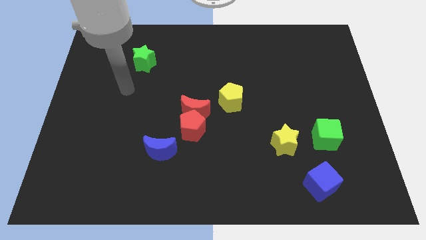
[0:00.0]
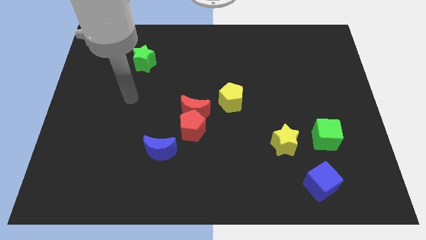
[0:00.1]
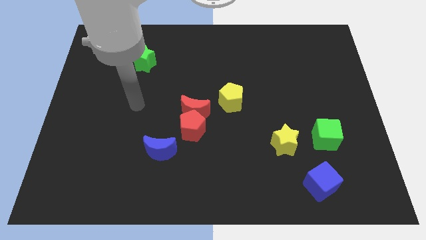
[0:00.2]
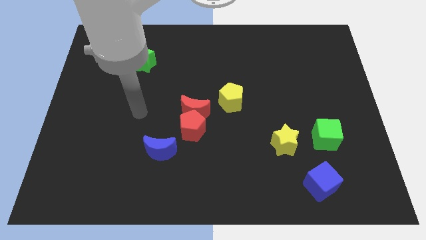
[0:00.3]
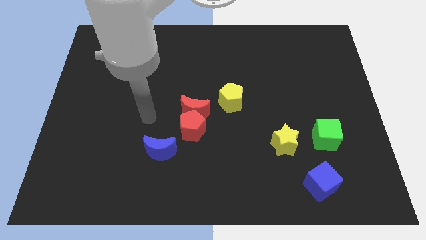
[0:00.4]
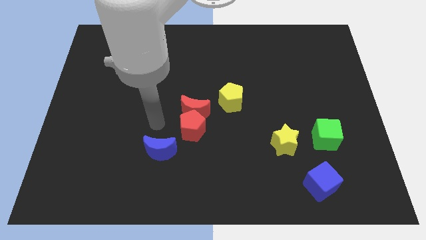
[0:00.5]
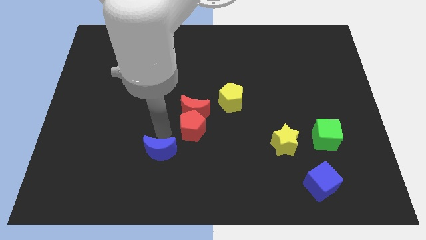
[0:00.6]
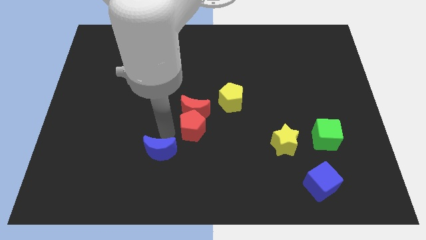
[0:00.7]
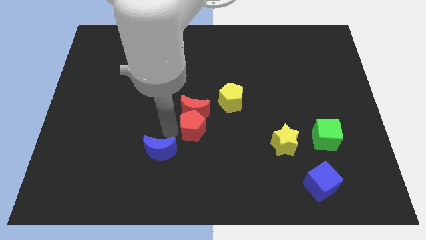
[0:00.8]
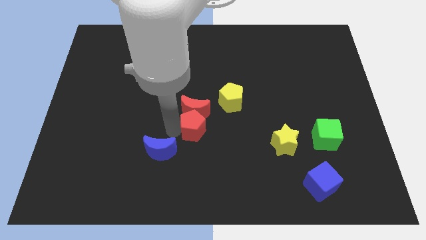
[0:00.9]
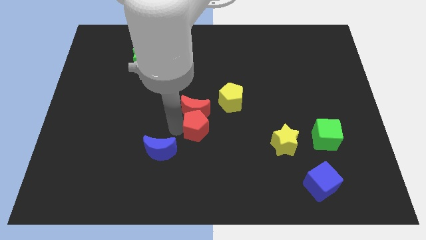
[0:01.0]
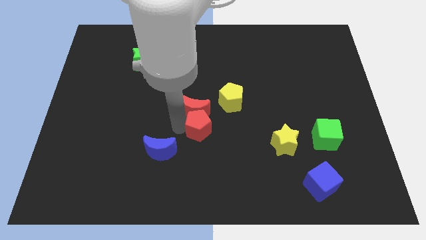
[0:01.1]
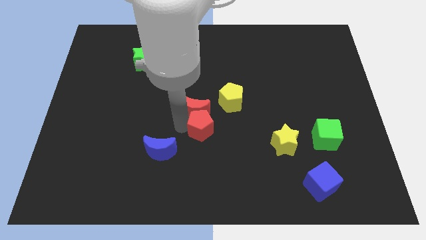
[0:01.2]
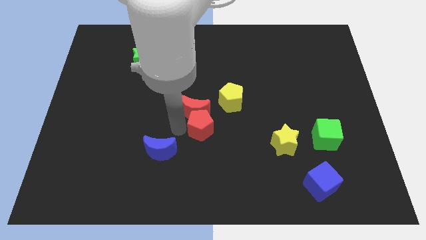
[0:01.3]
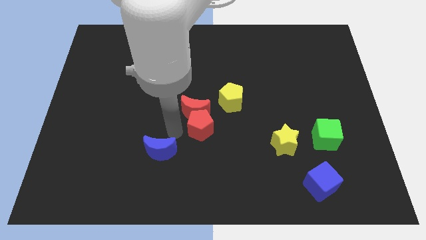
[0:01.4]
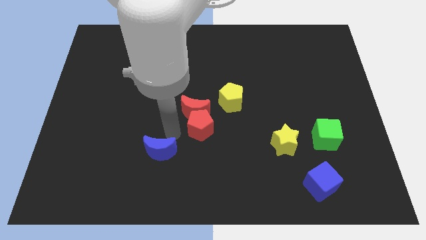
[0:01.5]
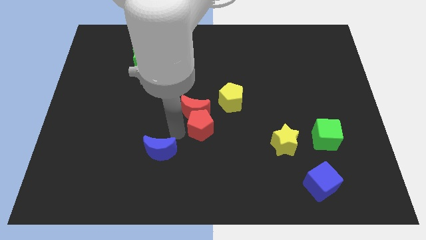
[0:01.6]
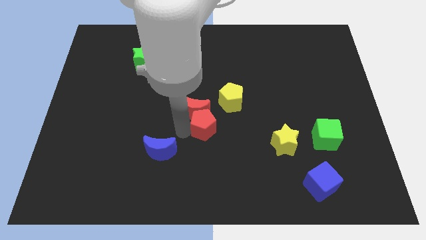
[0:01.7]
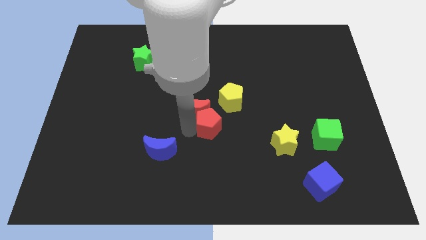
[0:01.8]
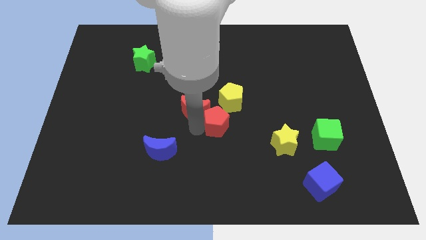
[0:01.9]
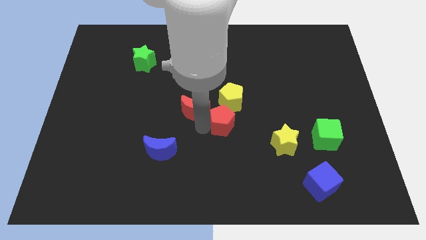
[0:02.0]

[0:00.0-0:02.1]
pull the red pentagon apart from the red moon and blue moon

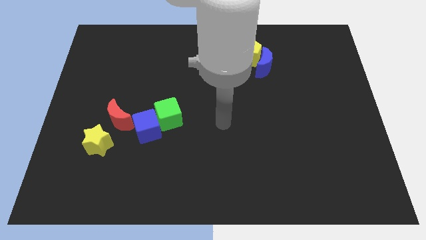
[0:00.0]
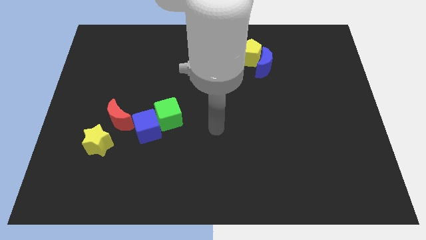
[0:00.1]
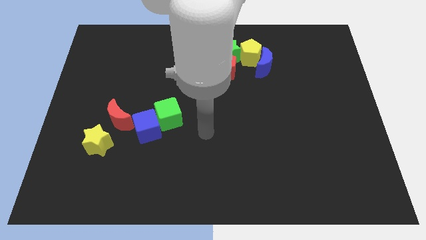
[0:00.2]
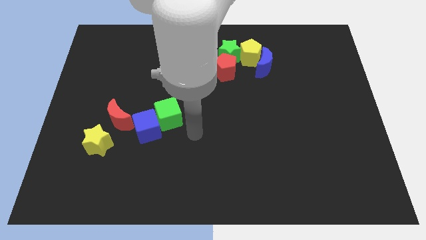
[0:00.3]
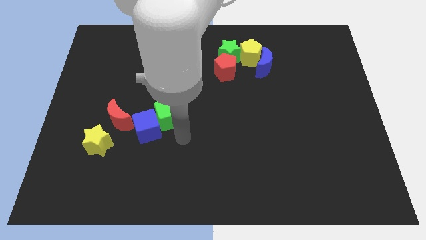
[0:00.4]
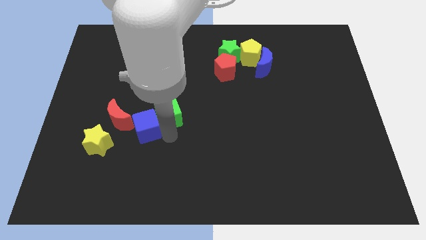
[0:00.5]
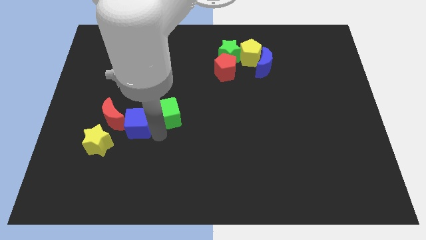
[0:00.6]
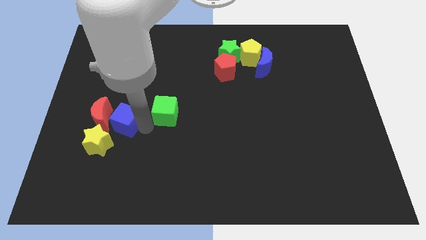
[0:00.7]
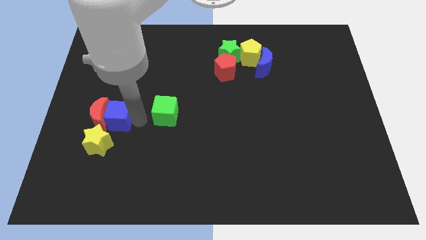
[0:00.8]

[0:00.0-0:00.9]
separate the green cube from the blue cube

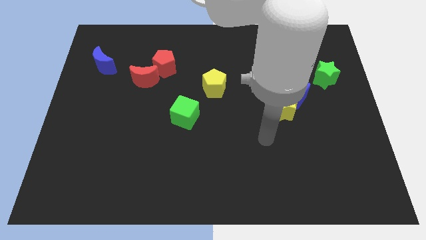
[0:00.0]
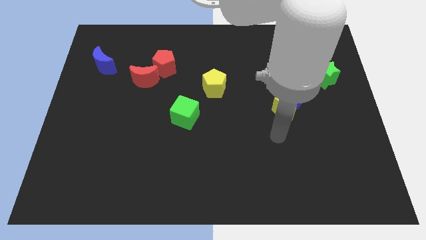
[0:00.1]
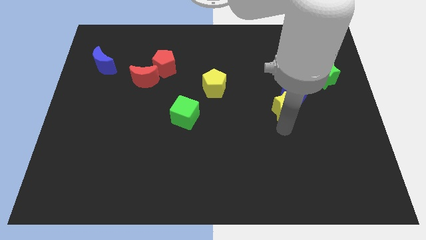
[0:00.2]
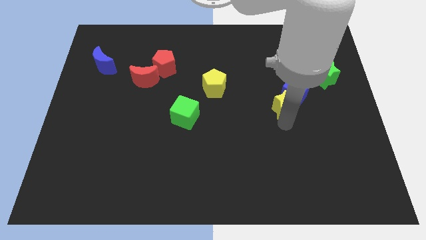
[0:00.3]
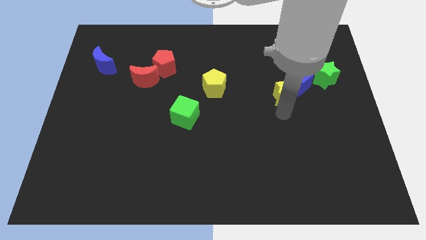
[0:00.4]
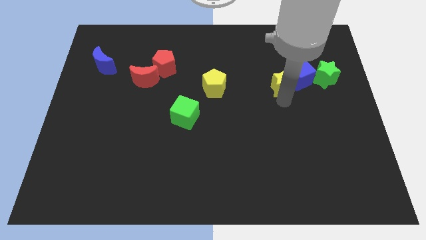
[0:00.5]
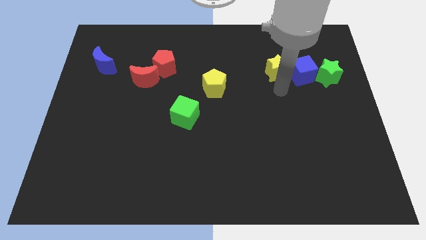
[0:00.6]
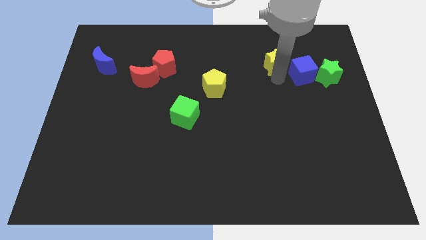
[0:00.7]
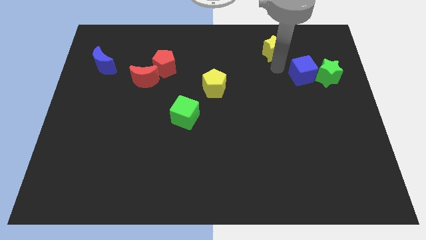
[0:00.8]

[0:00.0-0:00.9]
pull the blue cube apart from the yellow star

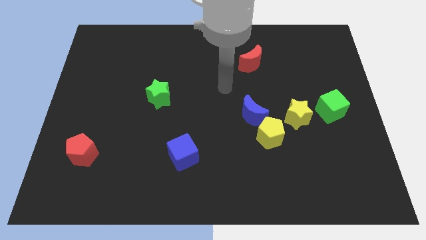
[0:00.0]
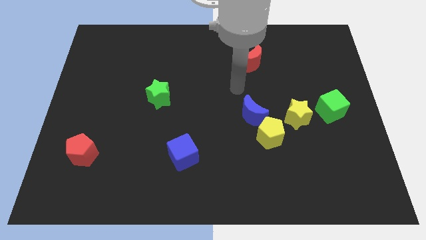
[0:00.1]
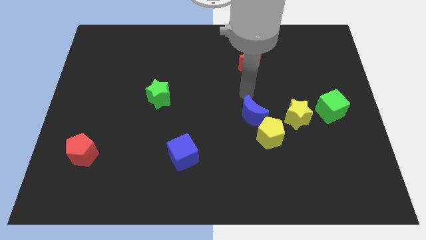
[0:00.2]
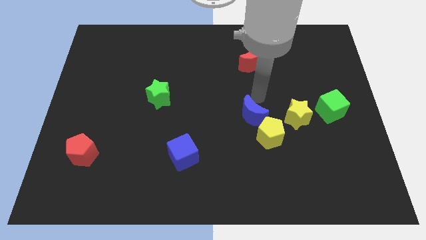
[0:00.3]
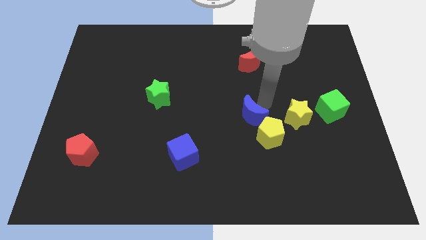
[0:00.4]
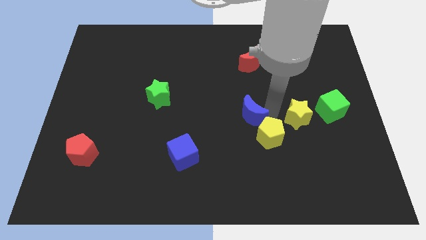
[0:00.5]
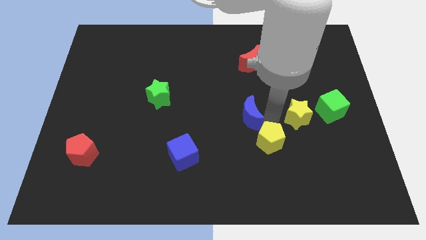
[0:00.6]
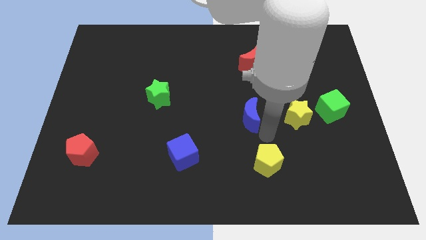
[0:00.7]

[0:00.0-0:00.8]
pull the blue moon apart from the yellow pentagon

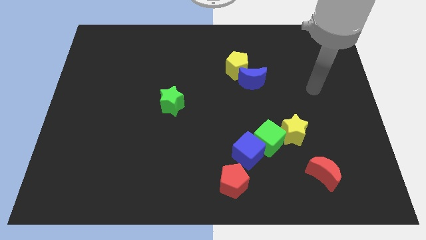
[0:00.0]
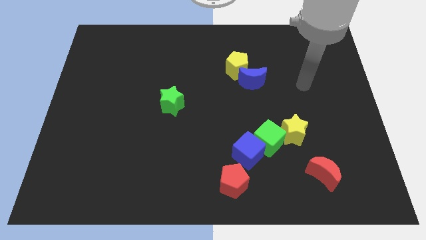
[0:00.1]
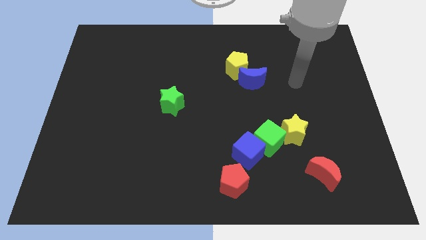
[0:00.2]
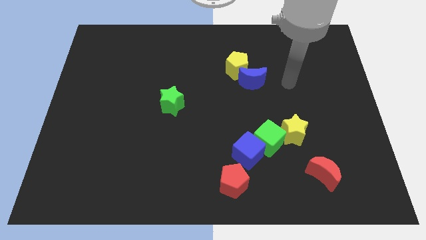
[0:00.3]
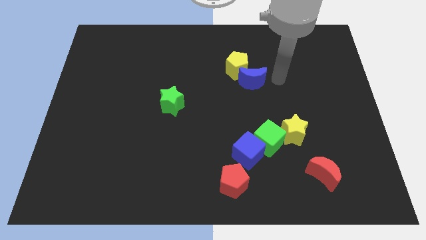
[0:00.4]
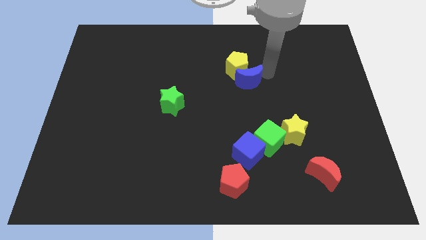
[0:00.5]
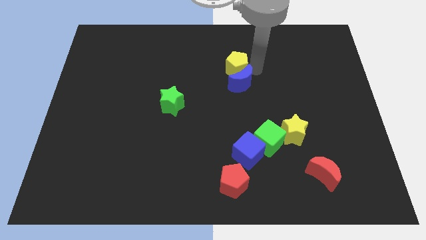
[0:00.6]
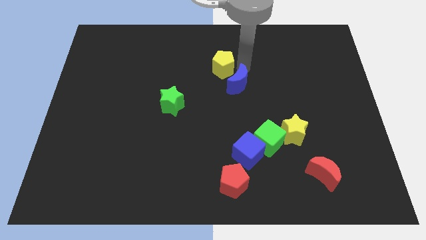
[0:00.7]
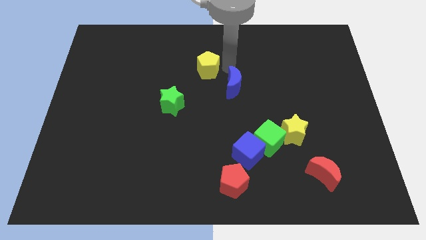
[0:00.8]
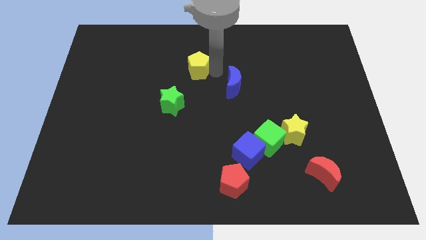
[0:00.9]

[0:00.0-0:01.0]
separate the blue moon from the yellow pentagon

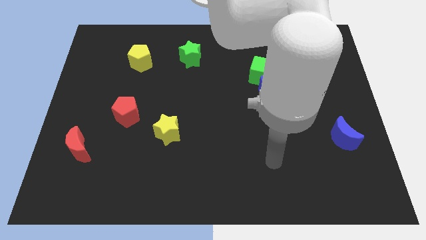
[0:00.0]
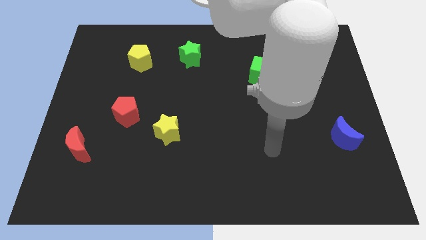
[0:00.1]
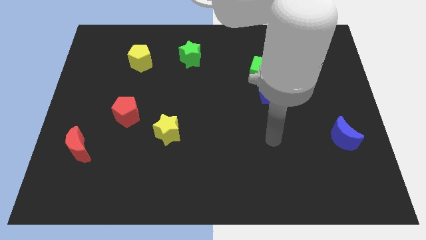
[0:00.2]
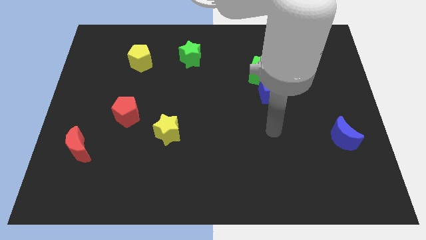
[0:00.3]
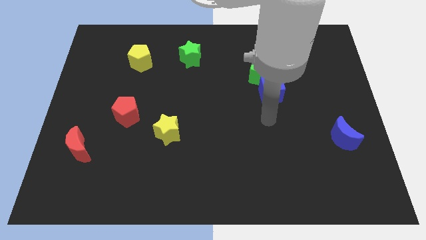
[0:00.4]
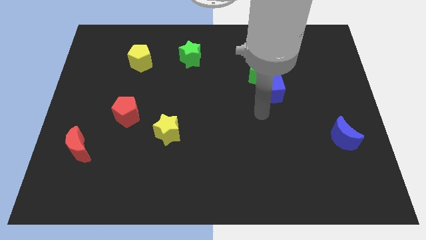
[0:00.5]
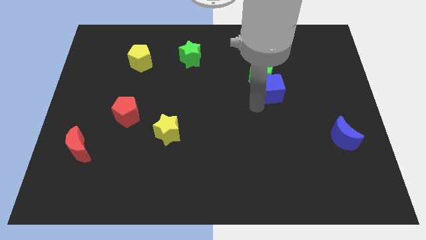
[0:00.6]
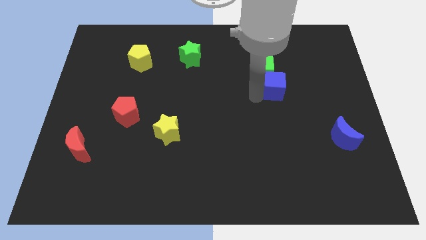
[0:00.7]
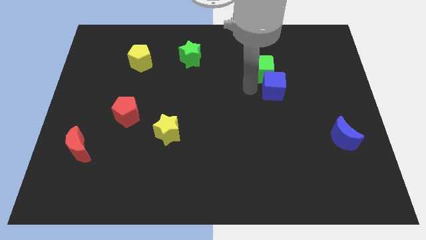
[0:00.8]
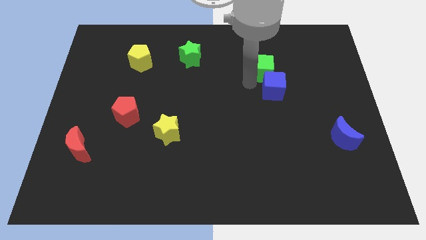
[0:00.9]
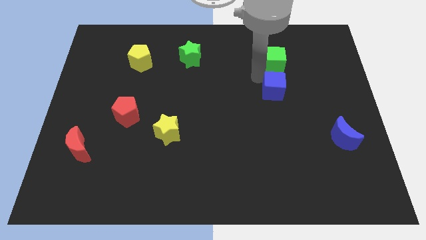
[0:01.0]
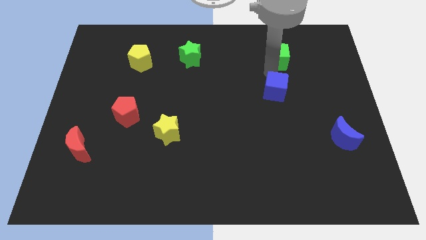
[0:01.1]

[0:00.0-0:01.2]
pull the blue cube apart from the green cube

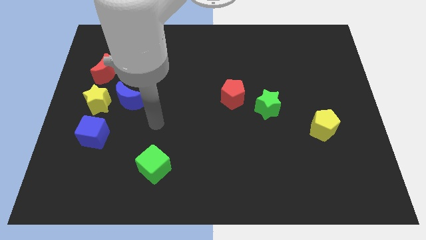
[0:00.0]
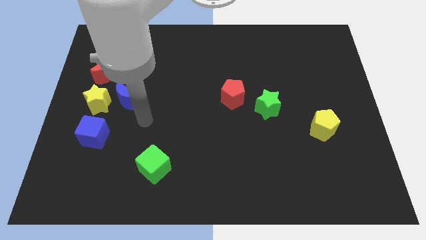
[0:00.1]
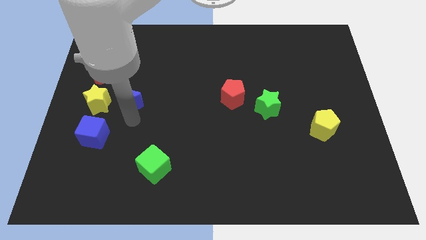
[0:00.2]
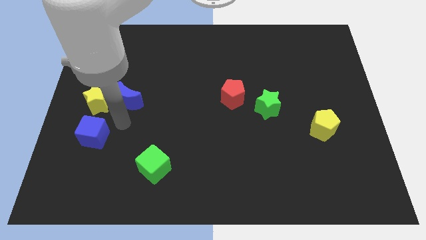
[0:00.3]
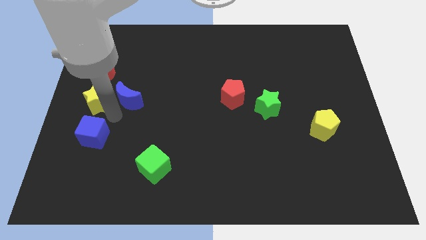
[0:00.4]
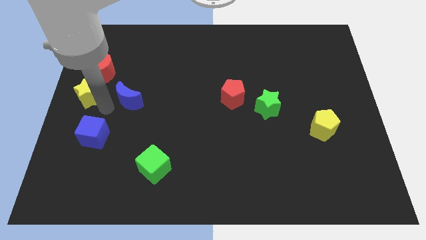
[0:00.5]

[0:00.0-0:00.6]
move the blue moon away from the yellow star

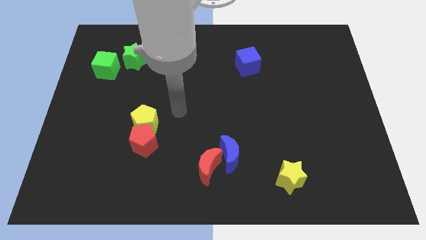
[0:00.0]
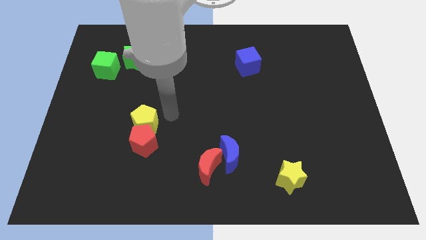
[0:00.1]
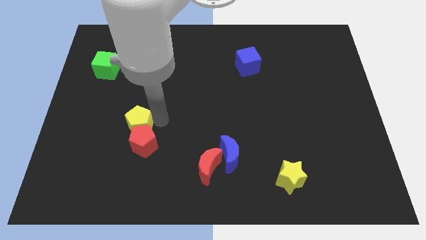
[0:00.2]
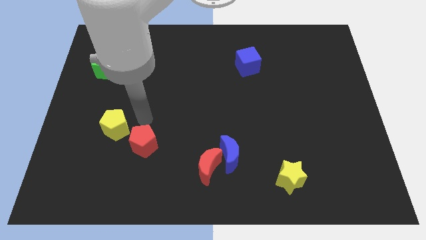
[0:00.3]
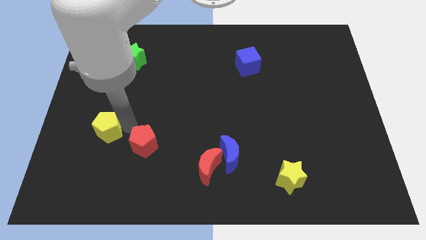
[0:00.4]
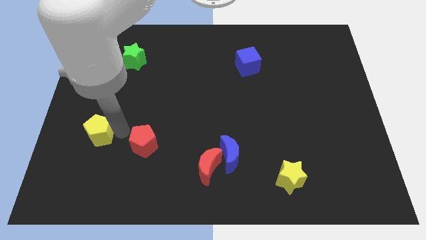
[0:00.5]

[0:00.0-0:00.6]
move the red pentagon away from the yellow pentagon

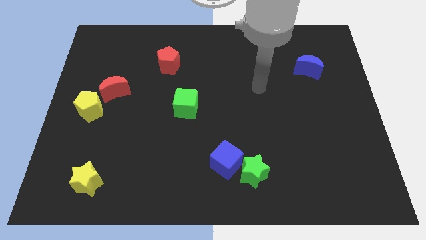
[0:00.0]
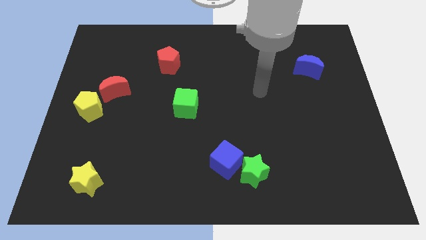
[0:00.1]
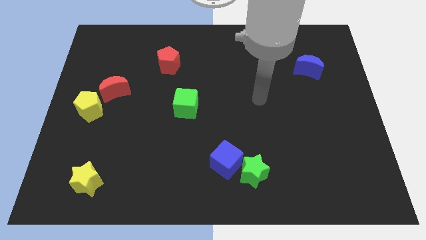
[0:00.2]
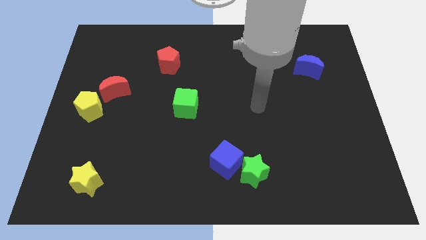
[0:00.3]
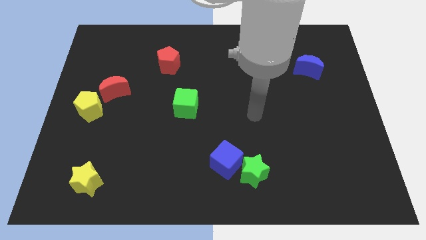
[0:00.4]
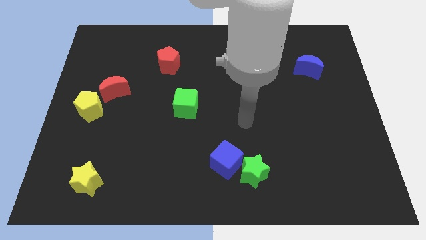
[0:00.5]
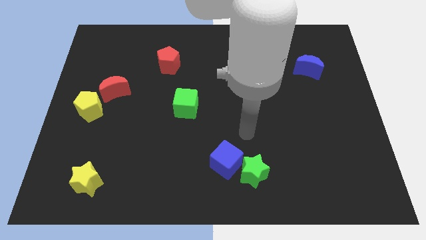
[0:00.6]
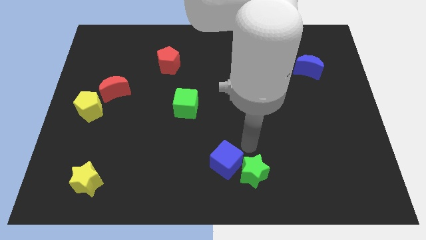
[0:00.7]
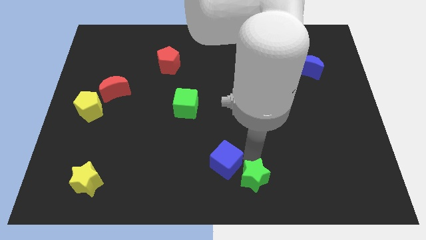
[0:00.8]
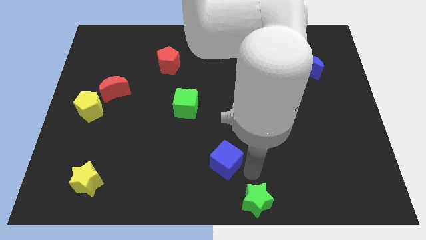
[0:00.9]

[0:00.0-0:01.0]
separate the blue cube from the green star

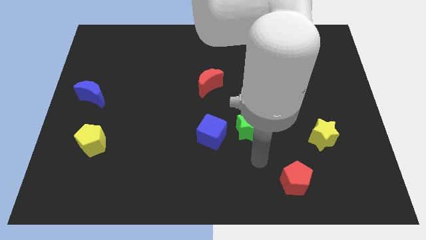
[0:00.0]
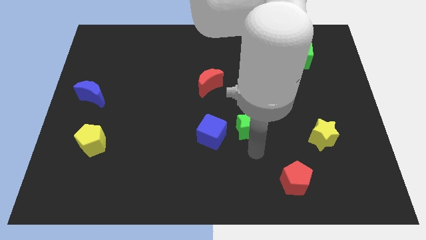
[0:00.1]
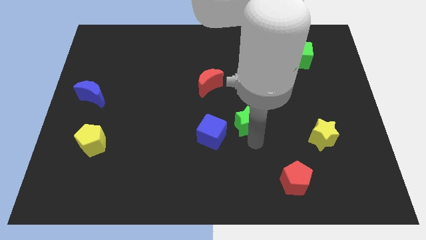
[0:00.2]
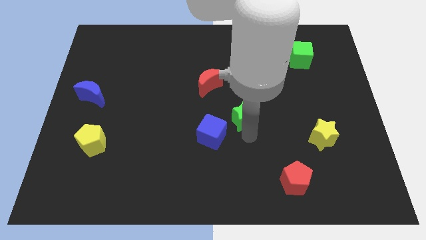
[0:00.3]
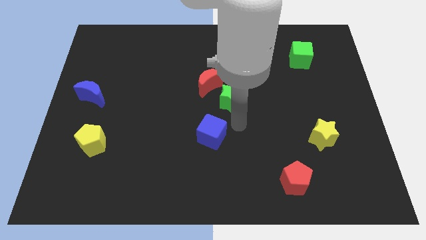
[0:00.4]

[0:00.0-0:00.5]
move the blue cube away from the green star
